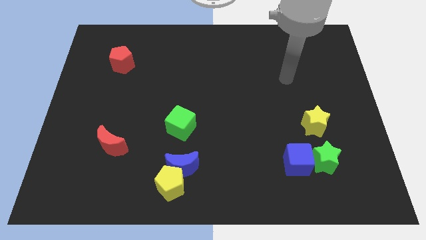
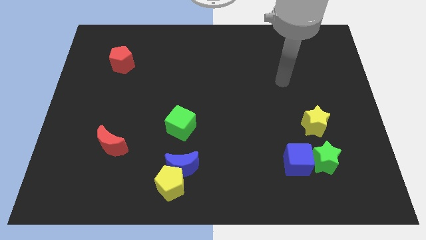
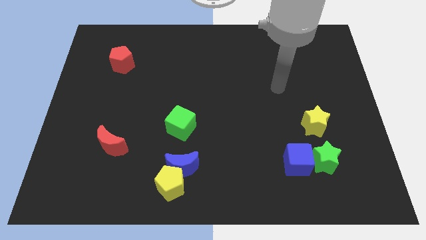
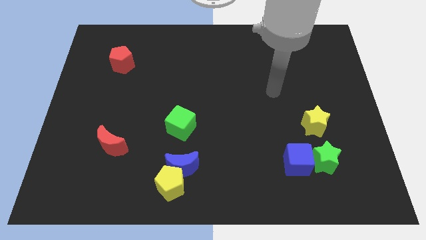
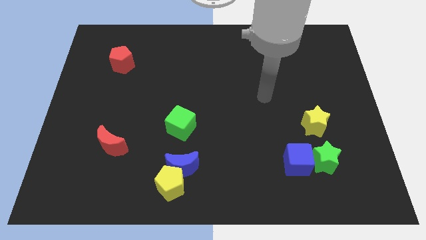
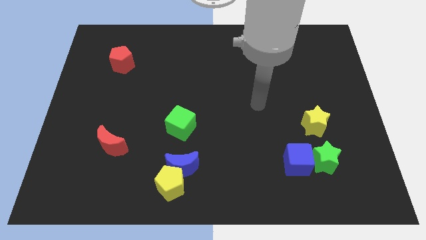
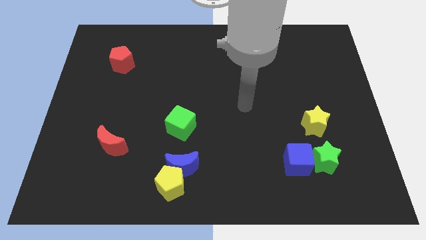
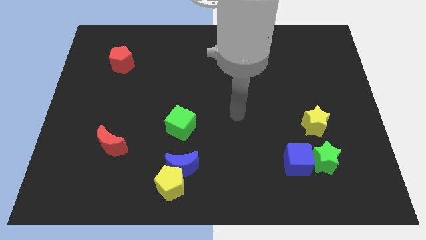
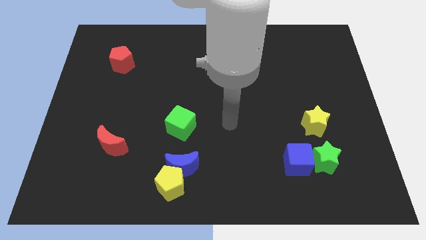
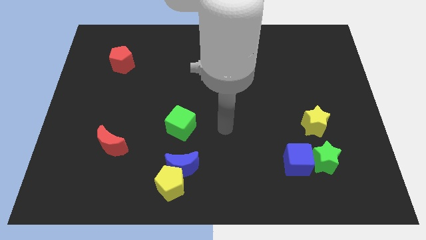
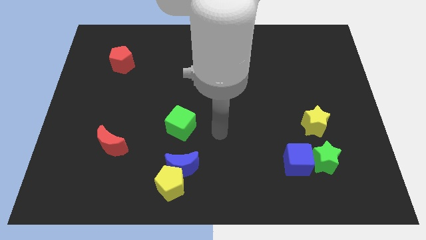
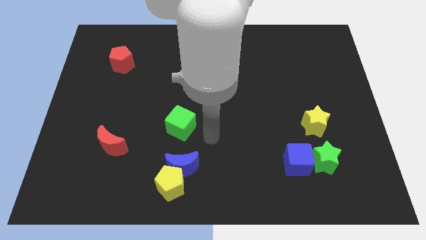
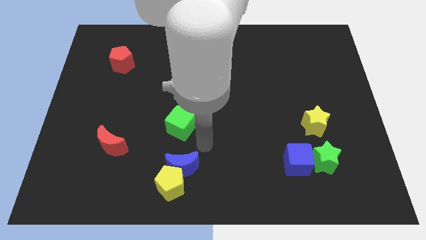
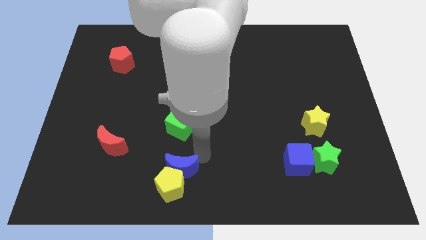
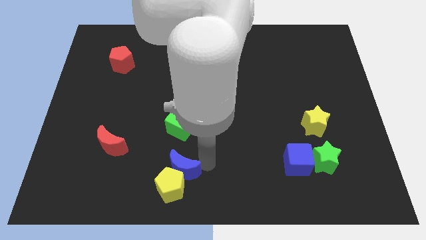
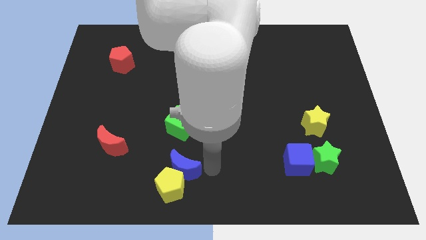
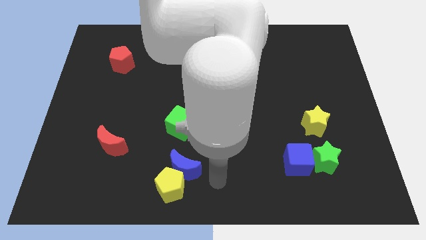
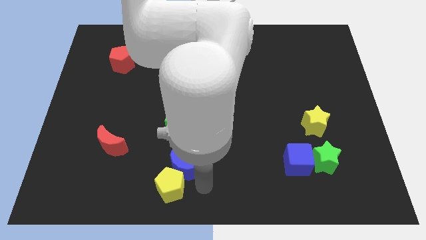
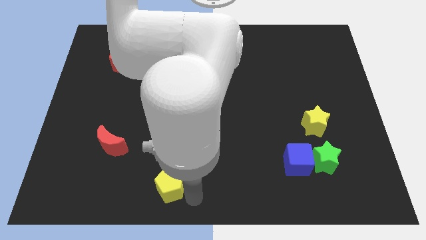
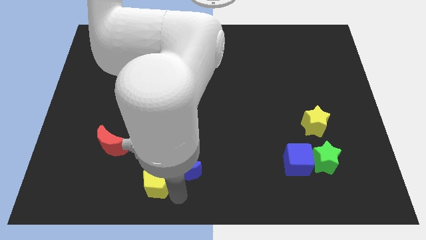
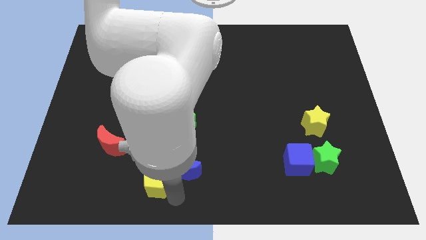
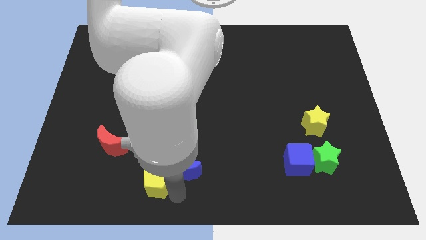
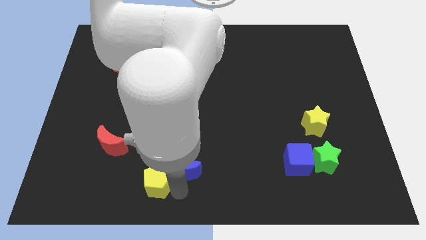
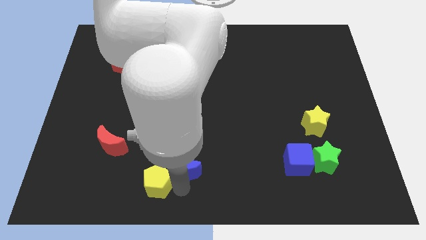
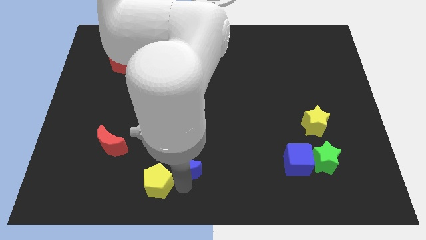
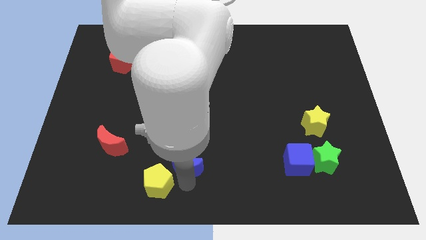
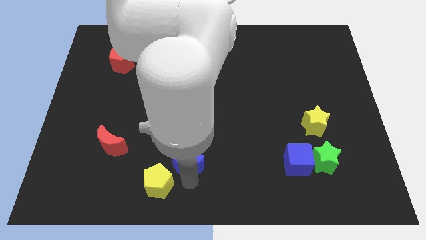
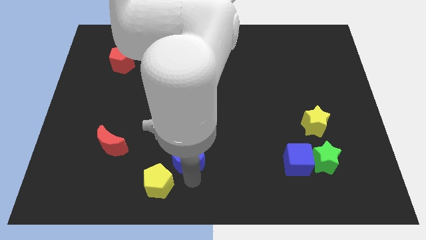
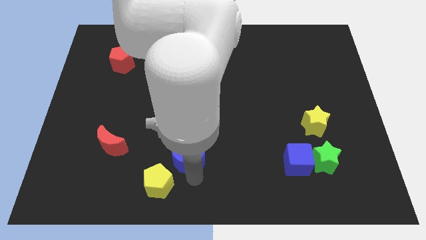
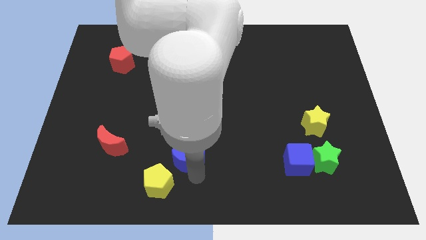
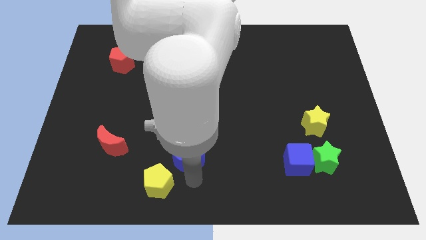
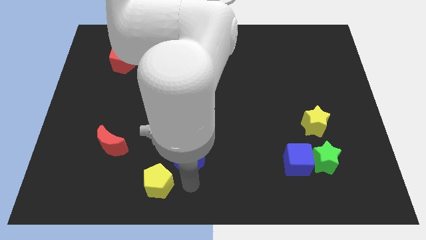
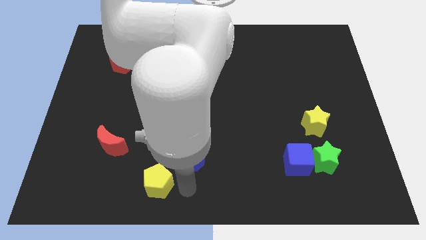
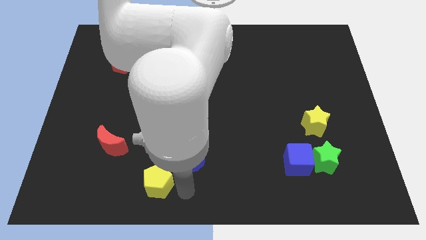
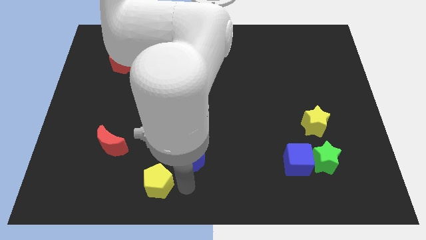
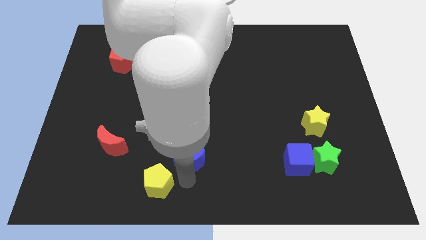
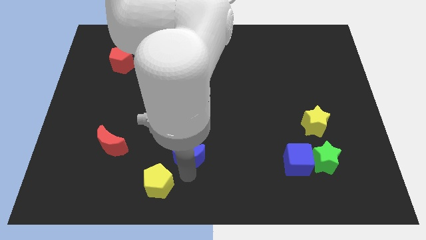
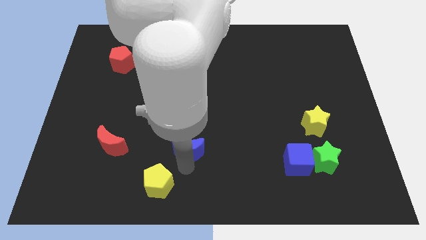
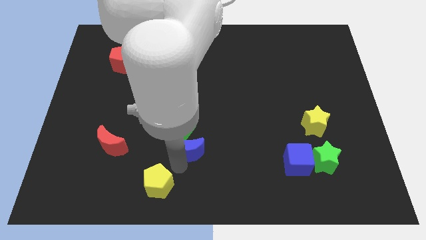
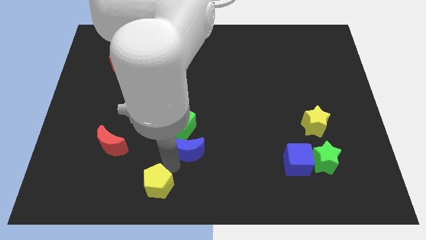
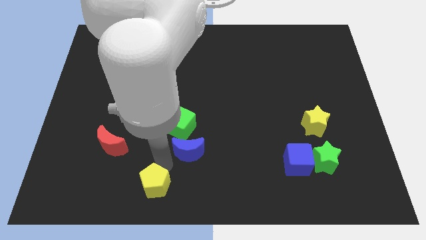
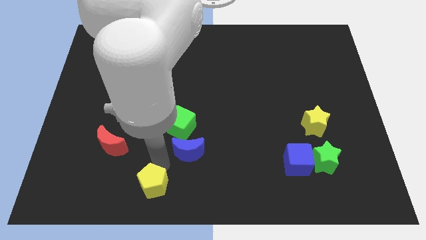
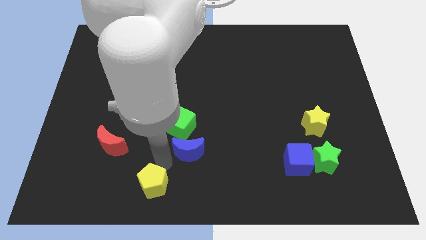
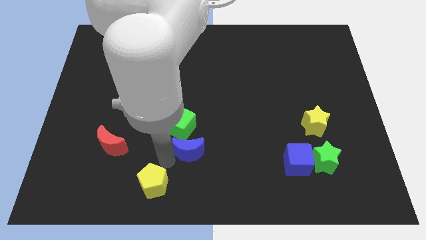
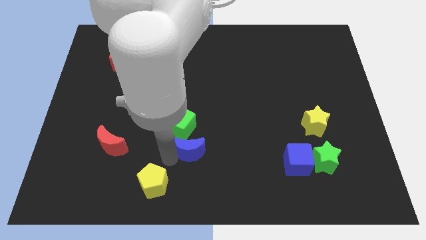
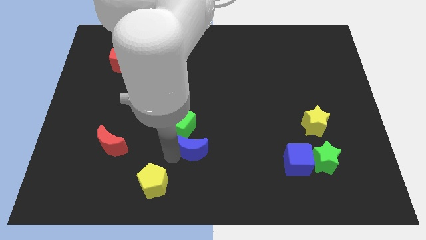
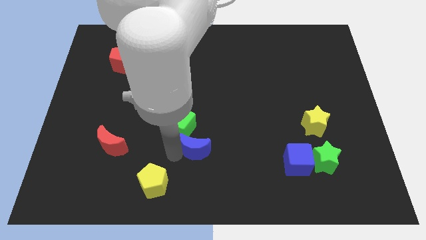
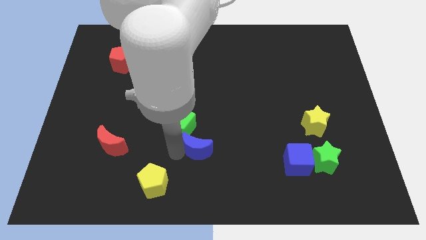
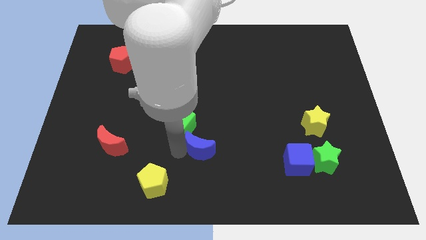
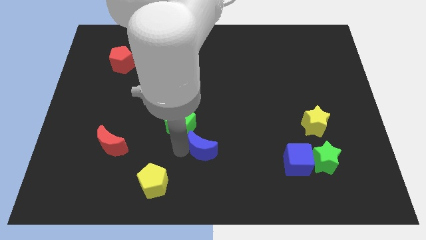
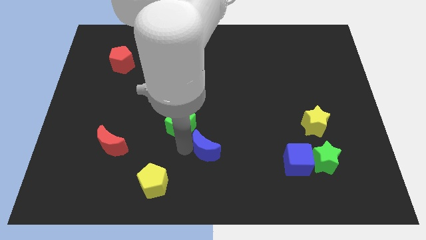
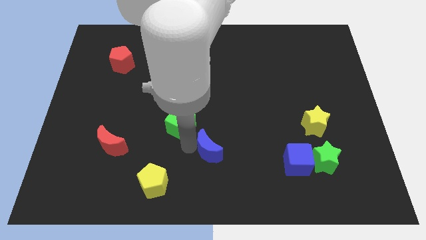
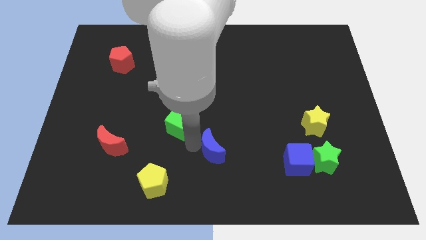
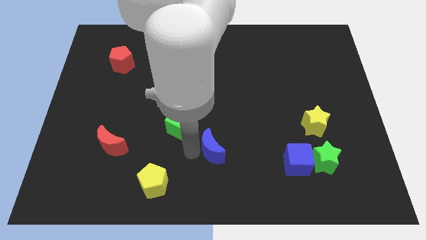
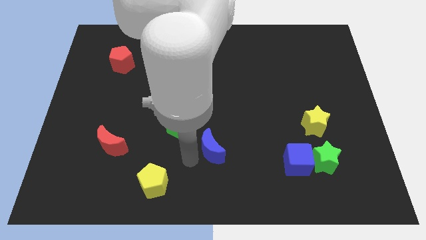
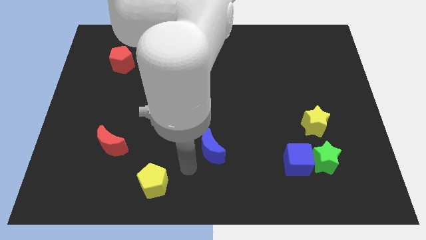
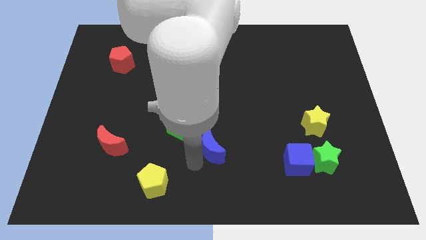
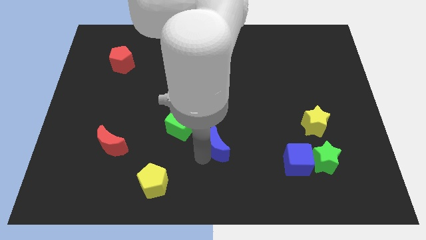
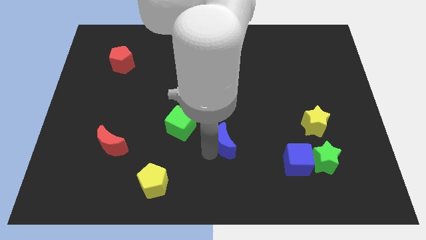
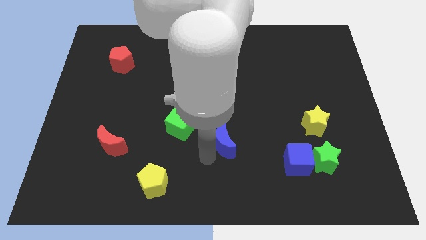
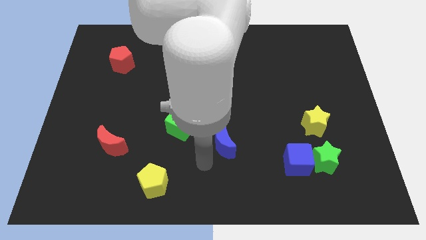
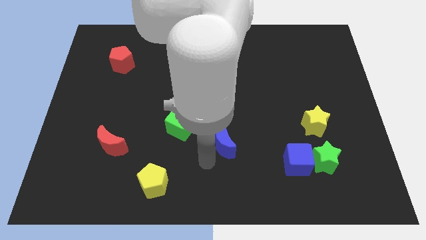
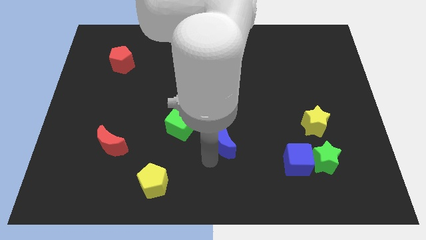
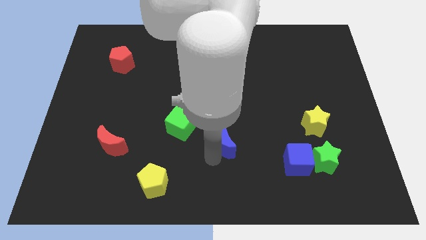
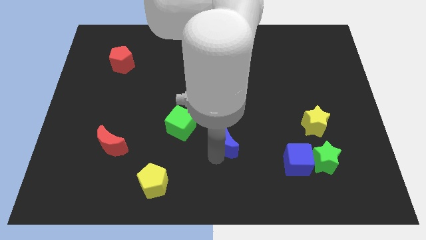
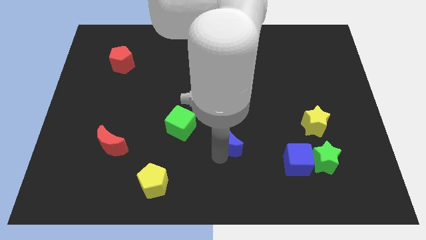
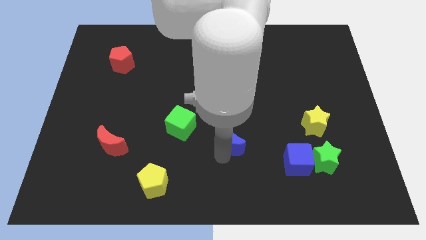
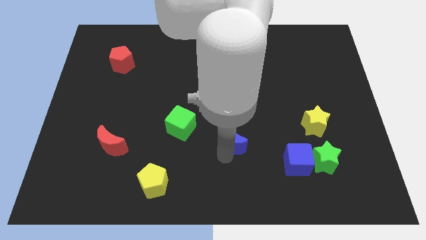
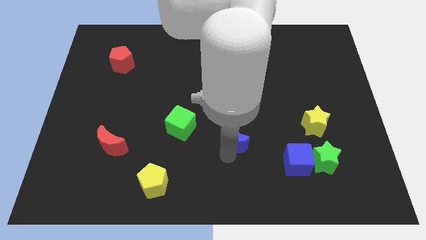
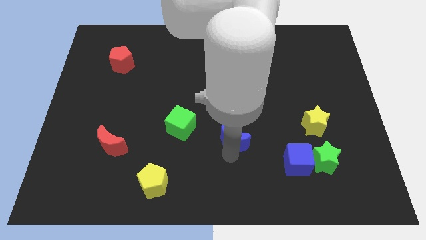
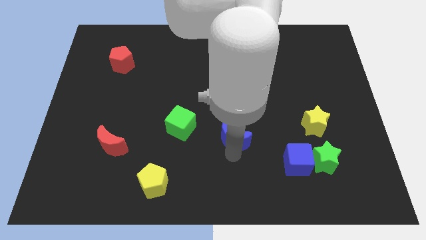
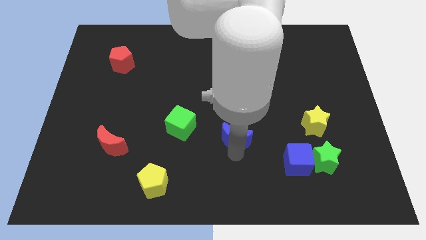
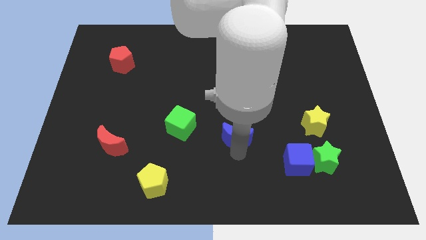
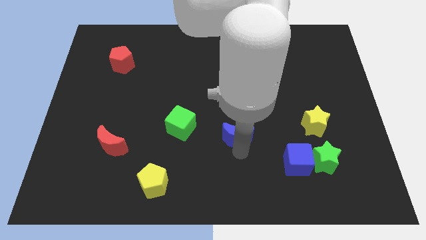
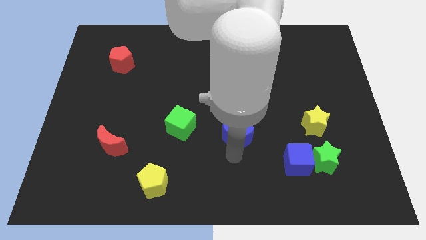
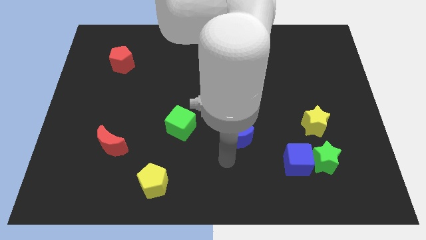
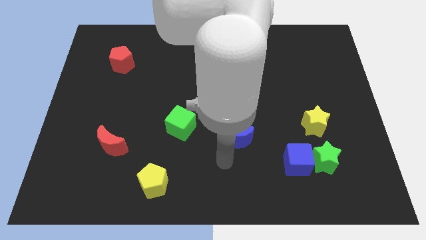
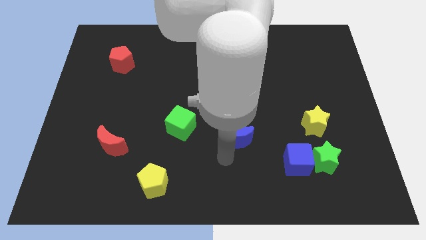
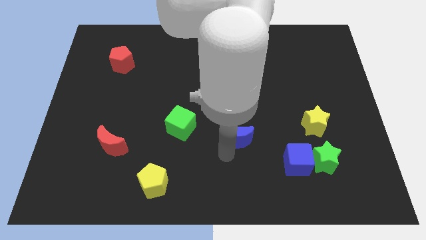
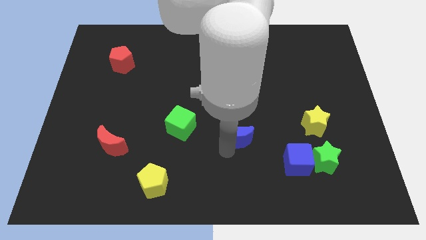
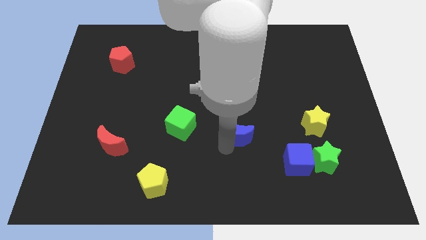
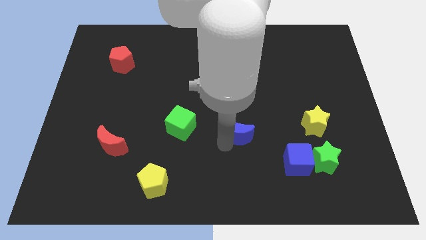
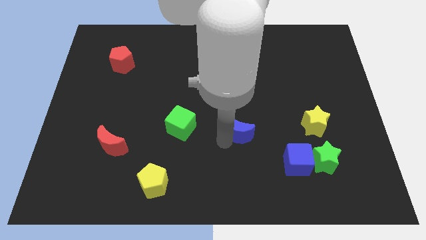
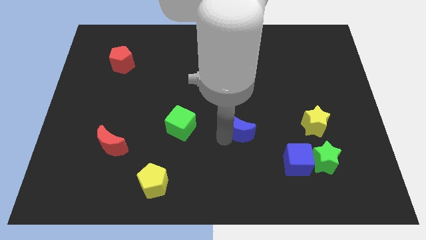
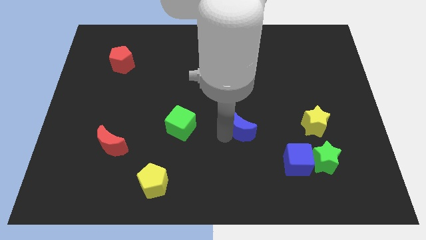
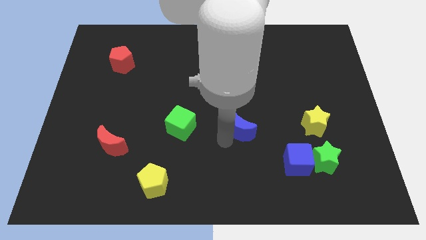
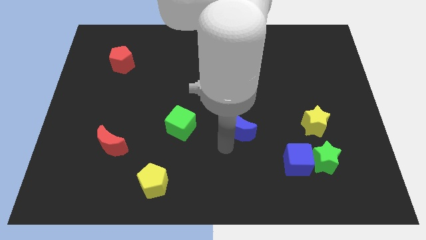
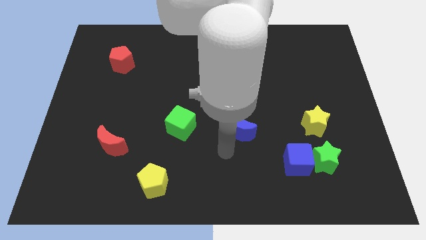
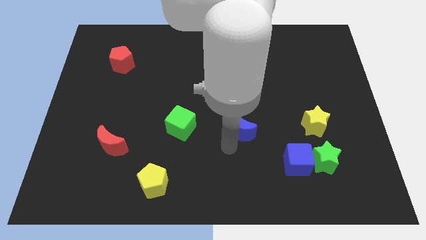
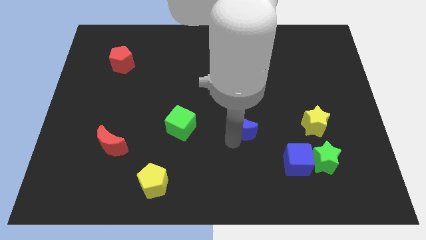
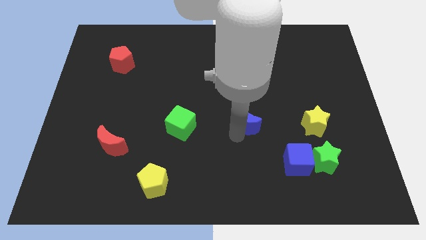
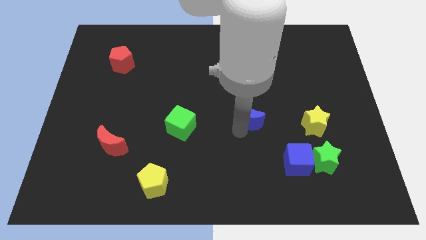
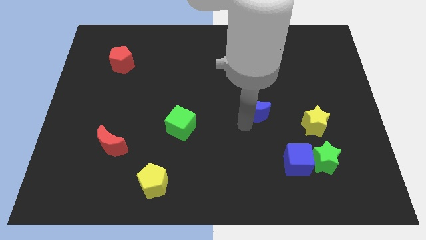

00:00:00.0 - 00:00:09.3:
push the blue moon diagonally up and right
